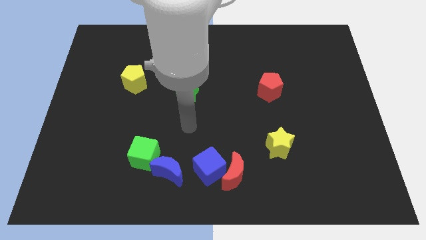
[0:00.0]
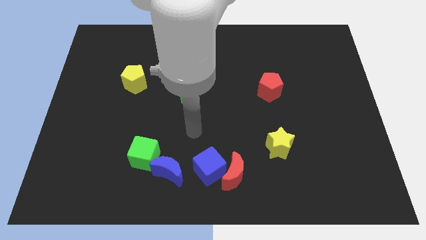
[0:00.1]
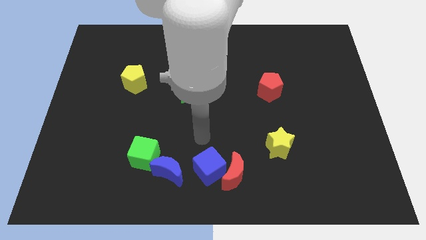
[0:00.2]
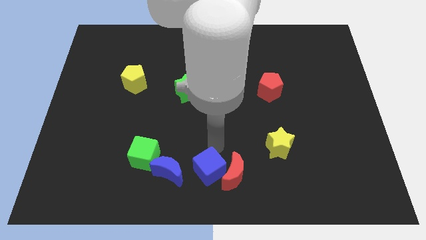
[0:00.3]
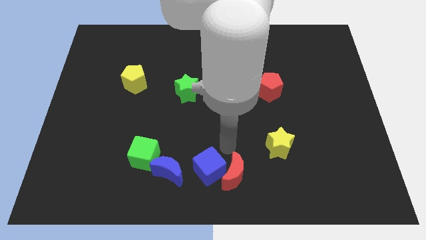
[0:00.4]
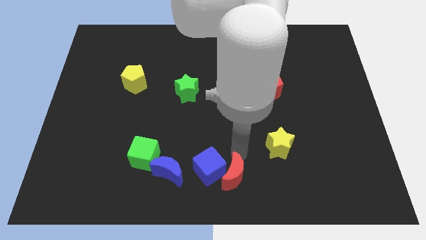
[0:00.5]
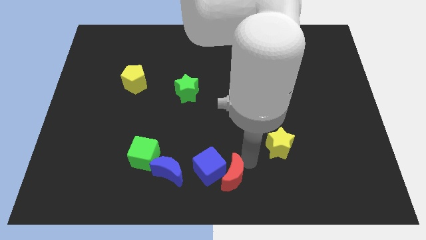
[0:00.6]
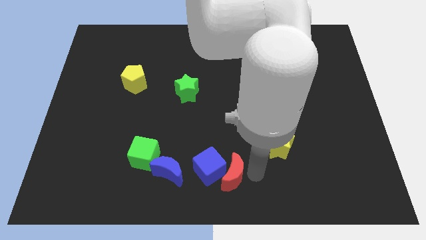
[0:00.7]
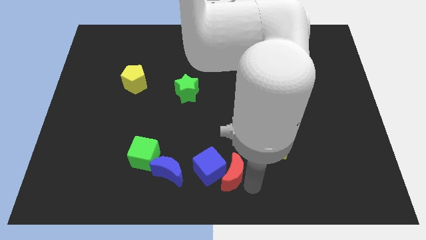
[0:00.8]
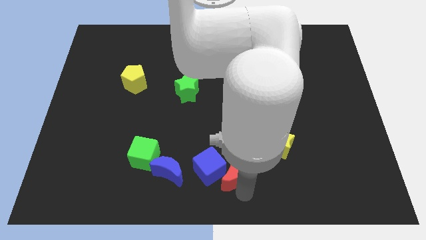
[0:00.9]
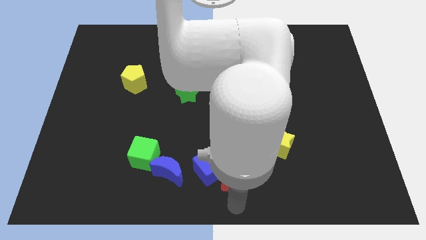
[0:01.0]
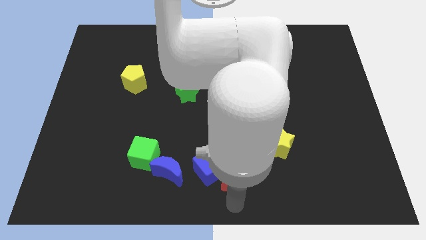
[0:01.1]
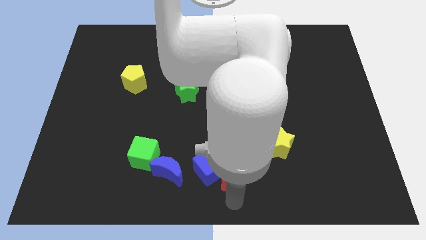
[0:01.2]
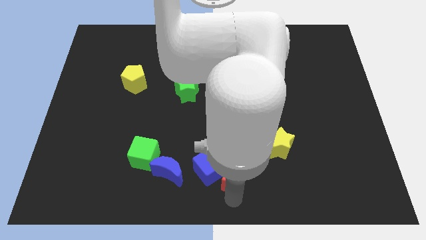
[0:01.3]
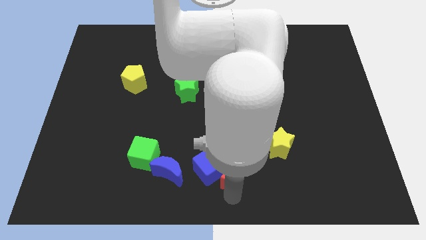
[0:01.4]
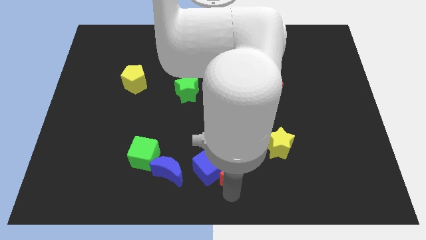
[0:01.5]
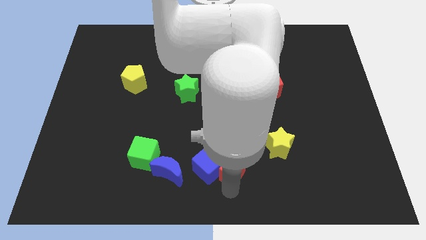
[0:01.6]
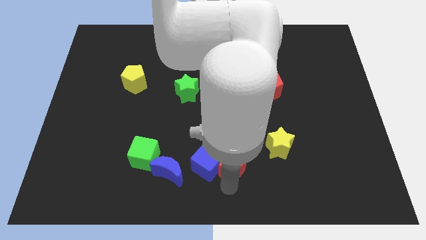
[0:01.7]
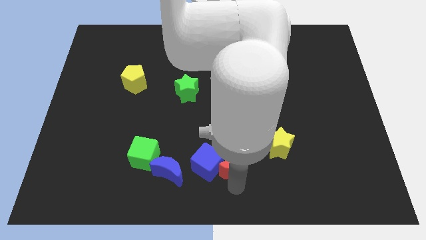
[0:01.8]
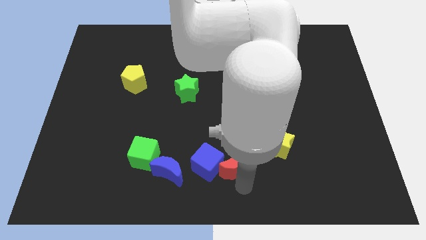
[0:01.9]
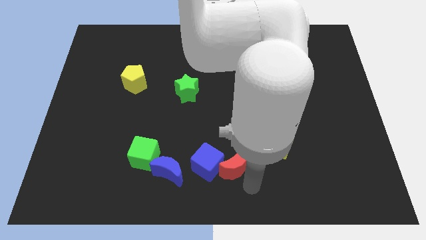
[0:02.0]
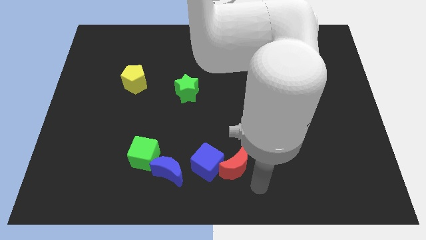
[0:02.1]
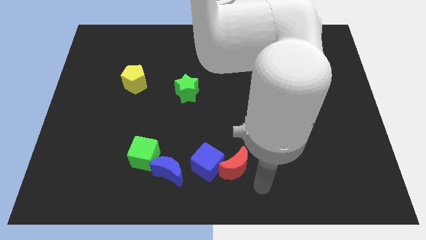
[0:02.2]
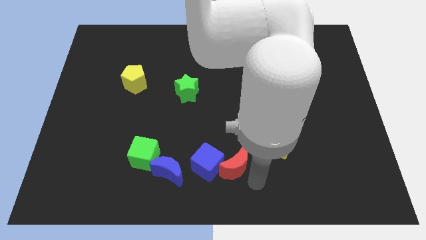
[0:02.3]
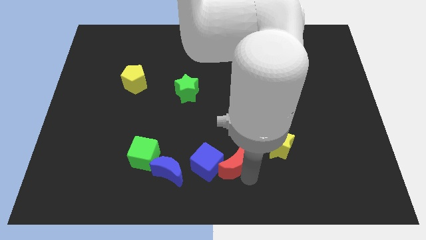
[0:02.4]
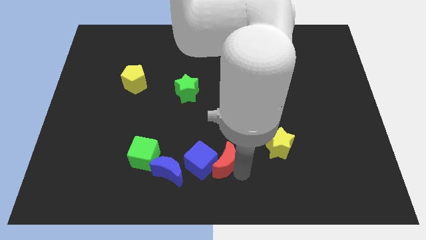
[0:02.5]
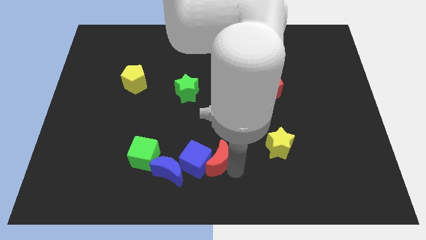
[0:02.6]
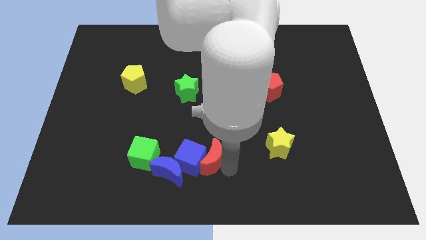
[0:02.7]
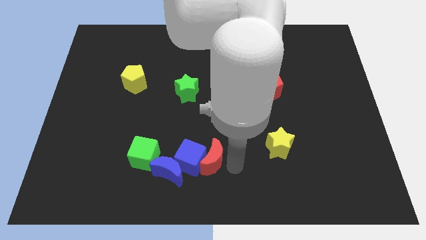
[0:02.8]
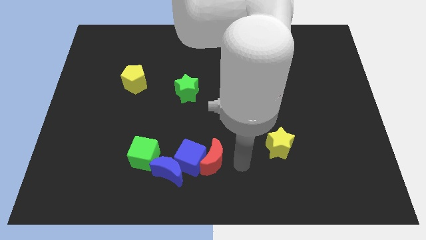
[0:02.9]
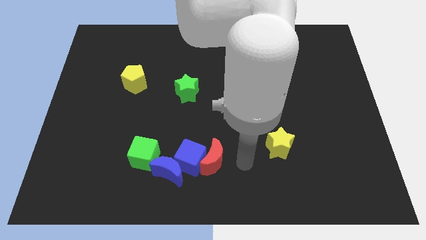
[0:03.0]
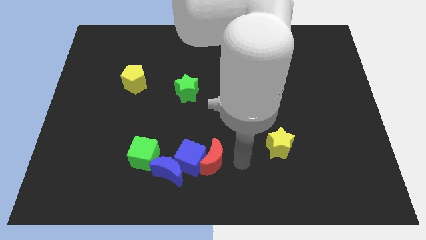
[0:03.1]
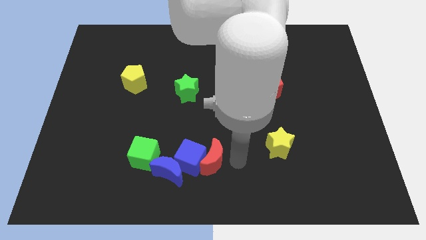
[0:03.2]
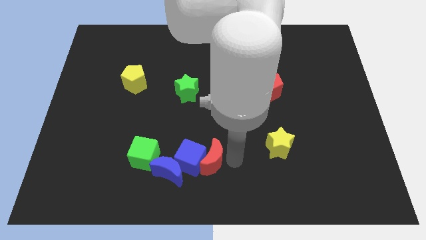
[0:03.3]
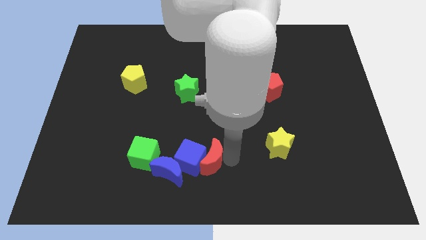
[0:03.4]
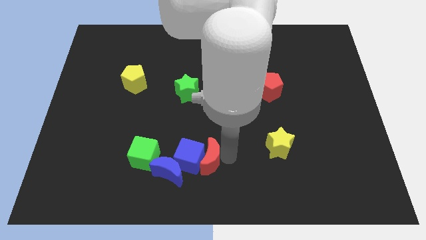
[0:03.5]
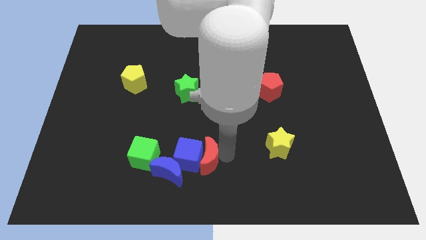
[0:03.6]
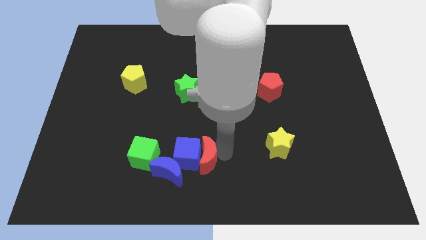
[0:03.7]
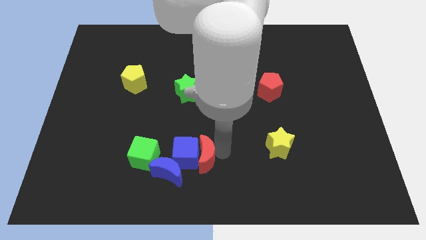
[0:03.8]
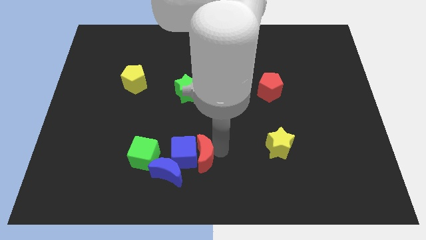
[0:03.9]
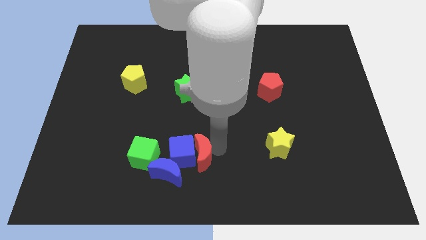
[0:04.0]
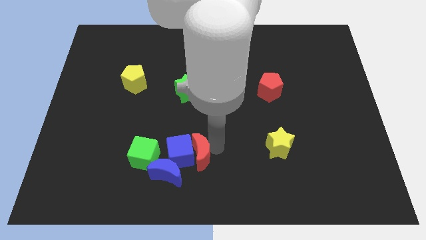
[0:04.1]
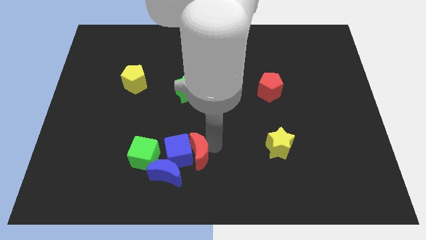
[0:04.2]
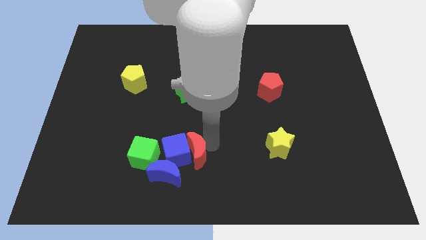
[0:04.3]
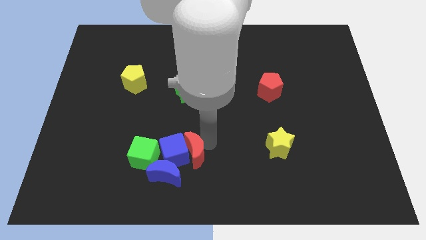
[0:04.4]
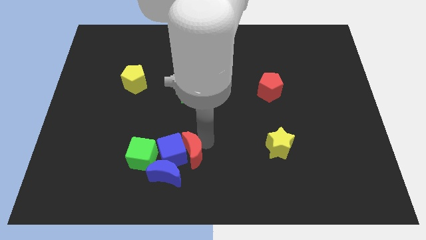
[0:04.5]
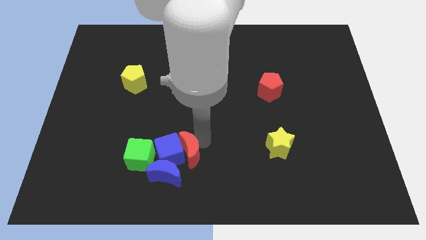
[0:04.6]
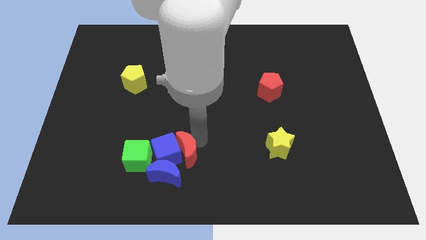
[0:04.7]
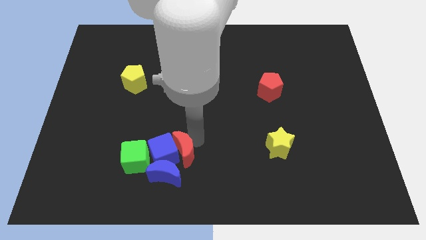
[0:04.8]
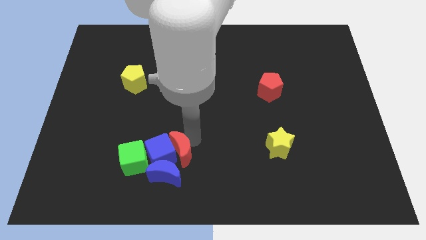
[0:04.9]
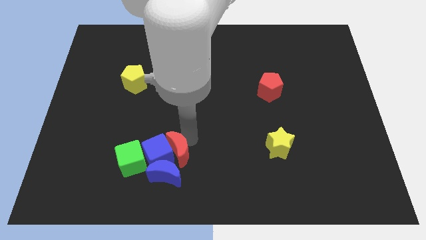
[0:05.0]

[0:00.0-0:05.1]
move the red moon close to the blue moon

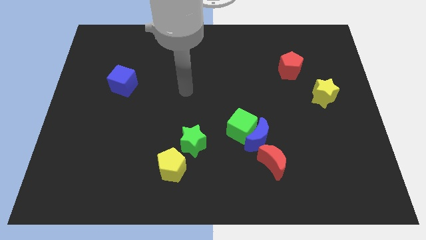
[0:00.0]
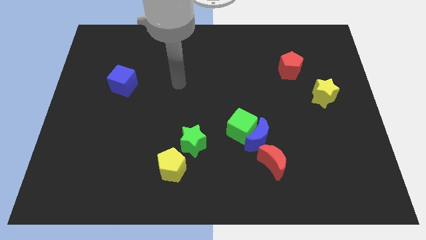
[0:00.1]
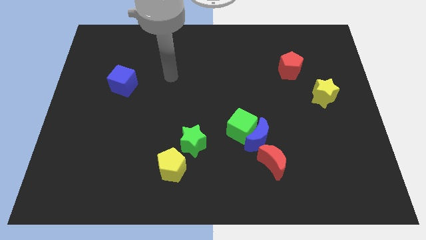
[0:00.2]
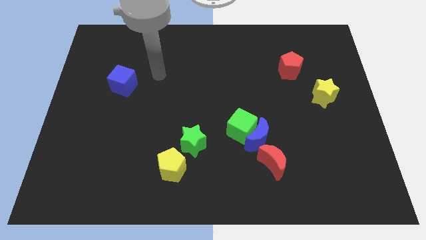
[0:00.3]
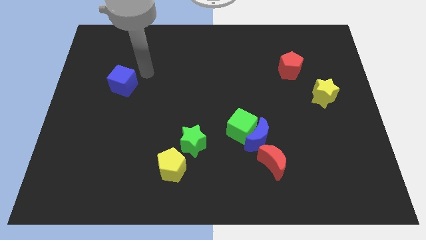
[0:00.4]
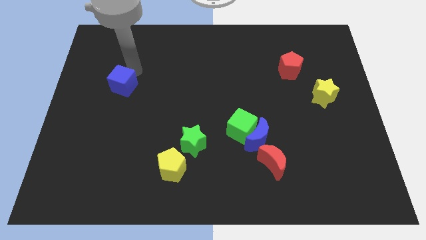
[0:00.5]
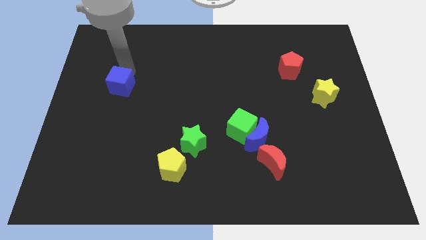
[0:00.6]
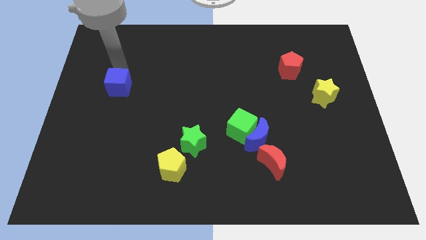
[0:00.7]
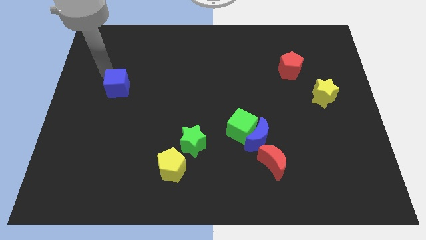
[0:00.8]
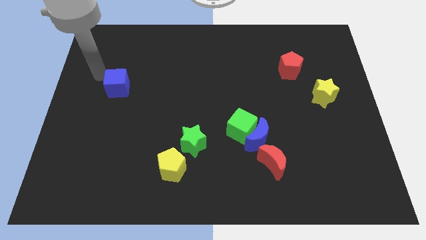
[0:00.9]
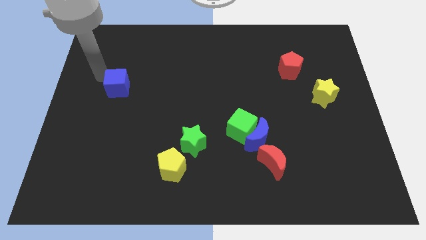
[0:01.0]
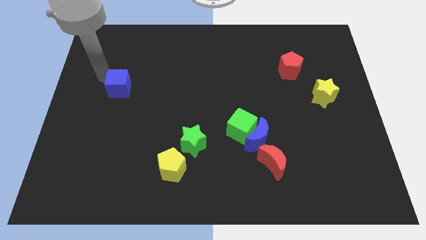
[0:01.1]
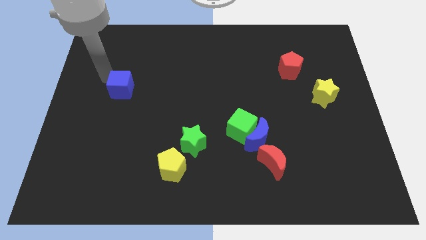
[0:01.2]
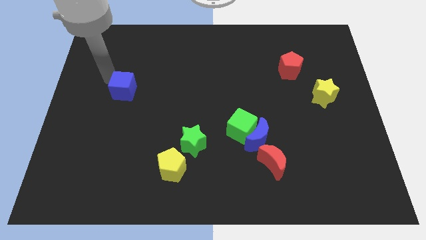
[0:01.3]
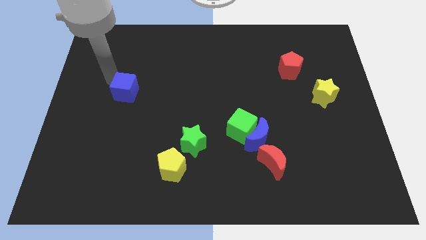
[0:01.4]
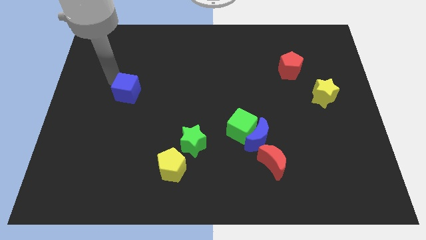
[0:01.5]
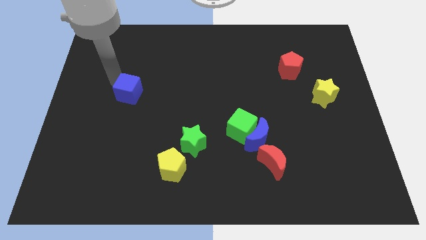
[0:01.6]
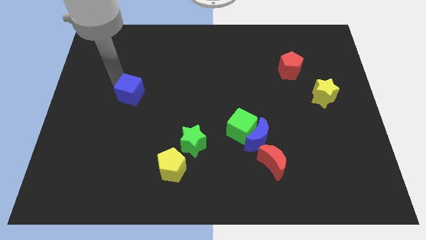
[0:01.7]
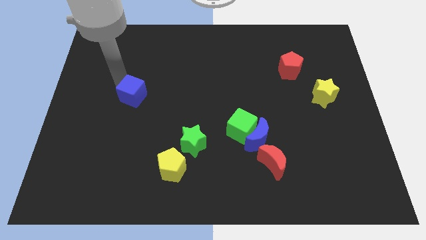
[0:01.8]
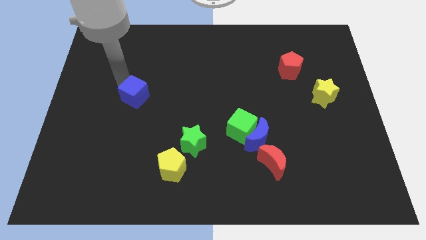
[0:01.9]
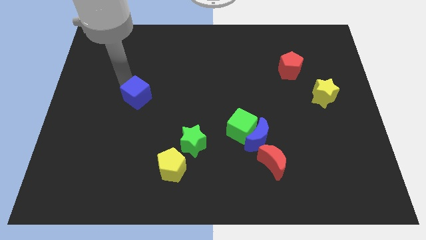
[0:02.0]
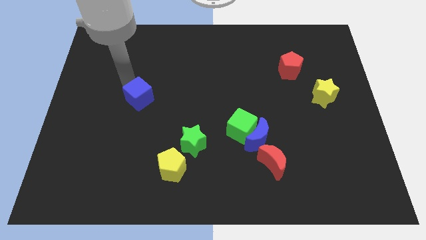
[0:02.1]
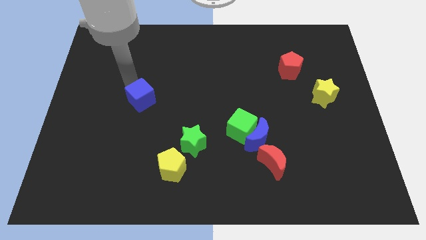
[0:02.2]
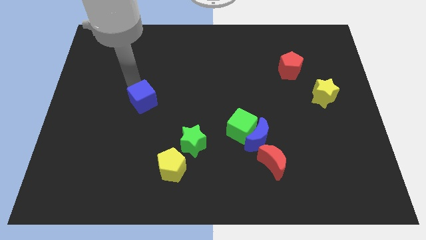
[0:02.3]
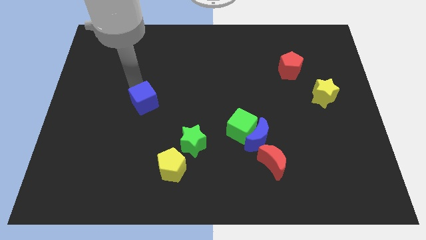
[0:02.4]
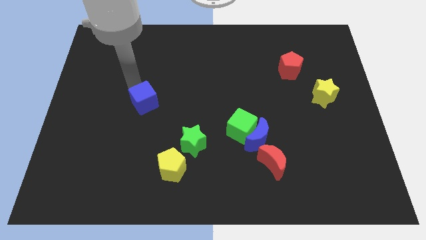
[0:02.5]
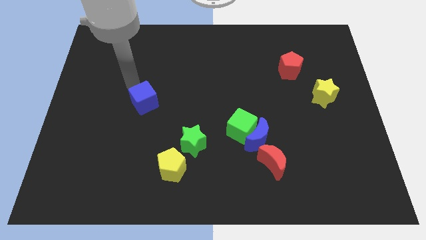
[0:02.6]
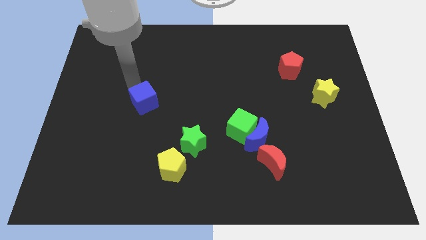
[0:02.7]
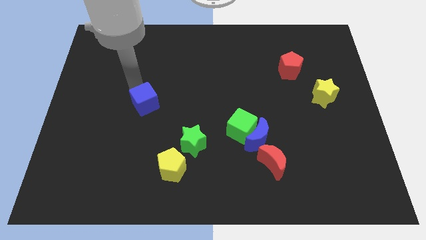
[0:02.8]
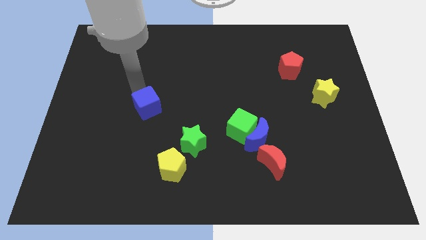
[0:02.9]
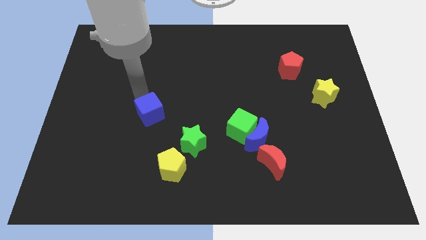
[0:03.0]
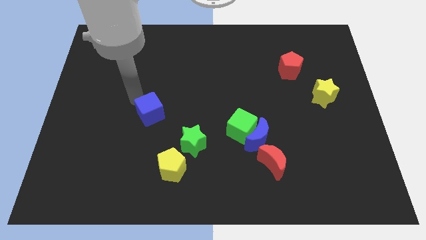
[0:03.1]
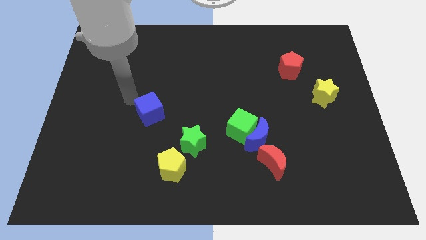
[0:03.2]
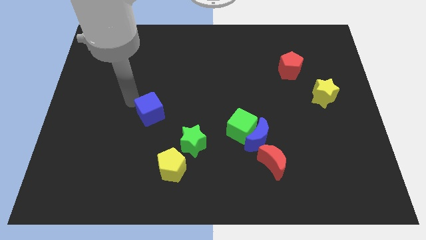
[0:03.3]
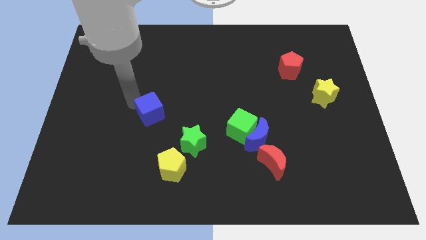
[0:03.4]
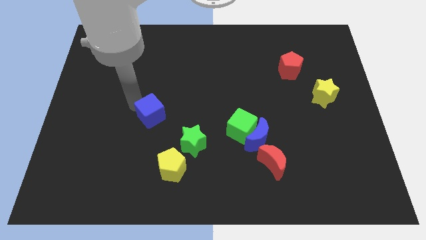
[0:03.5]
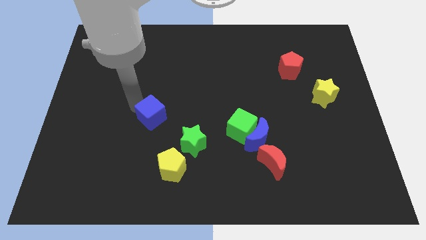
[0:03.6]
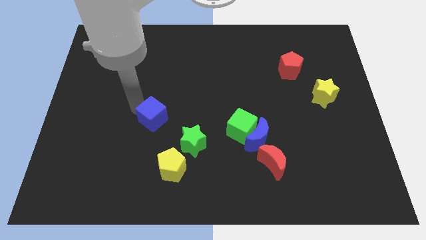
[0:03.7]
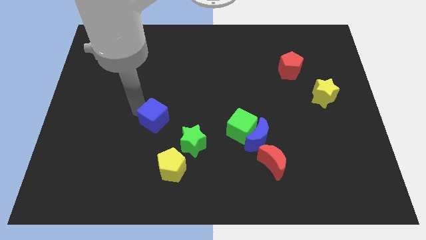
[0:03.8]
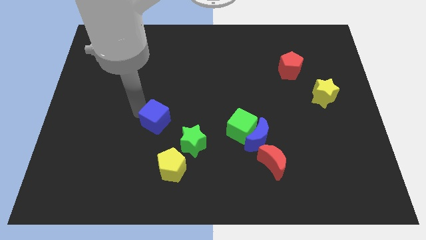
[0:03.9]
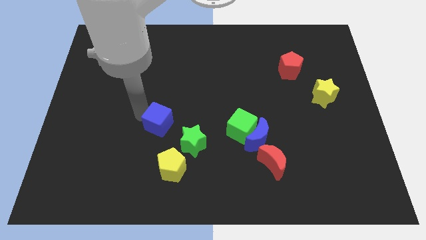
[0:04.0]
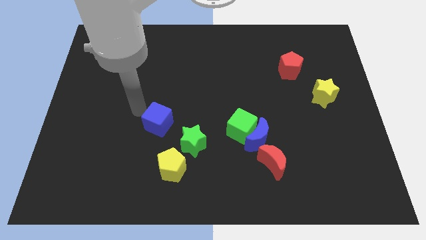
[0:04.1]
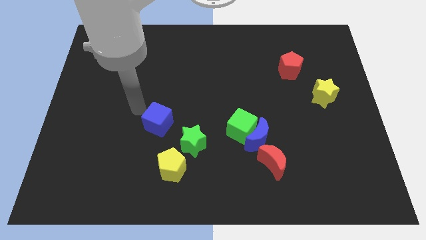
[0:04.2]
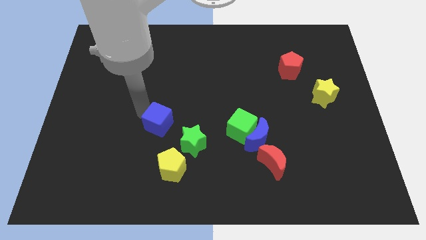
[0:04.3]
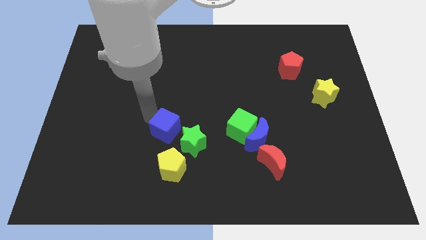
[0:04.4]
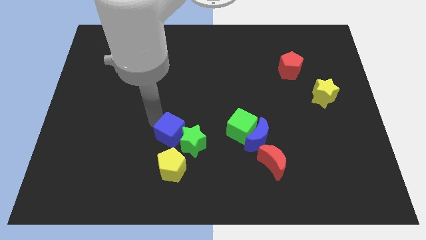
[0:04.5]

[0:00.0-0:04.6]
move the blue cube to the green star
